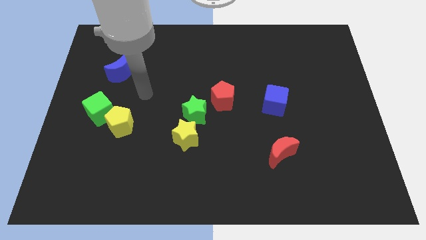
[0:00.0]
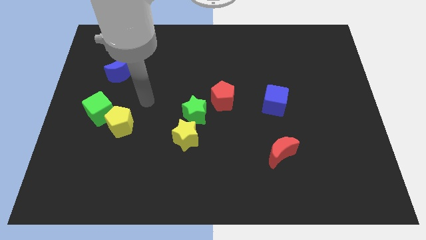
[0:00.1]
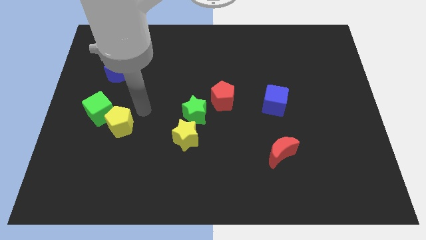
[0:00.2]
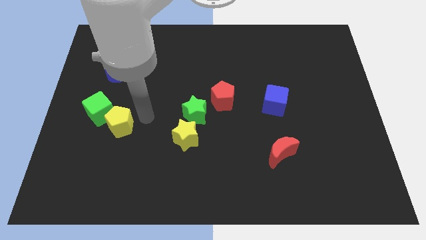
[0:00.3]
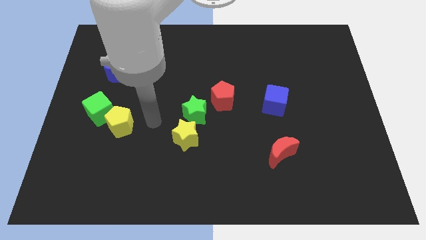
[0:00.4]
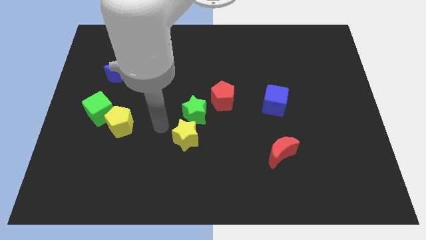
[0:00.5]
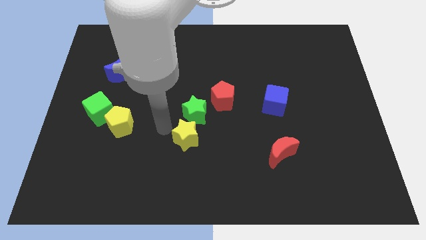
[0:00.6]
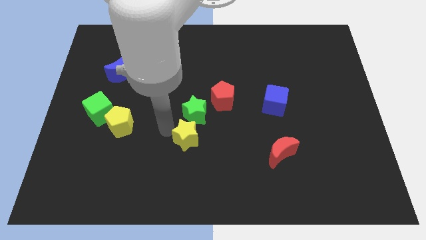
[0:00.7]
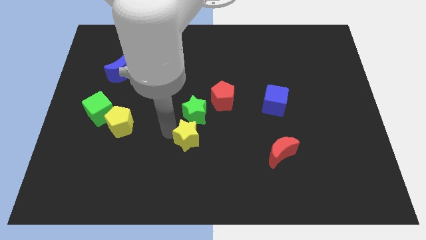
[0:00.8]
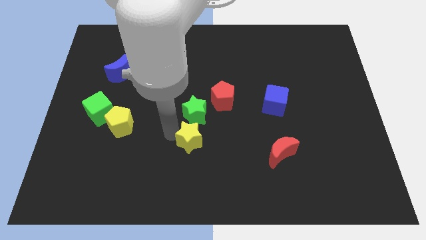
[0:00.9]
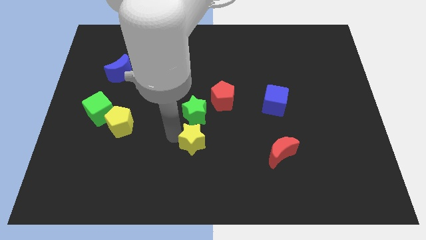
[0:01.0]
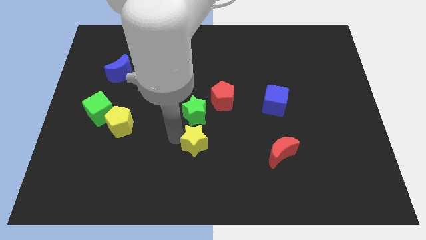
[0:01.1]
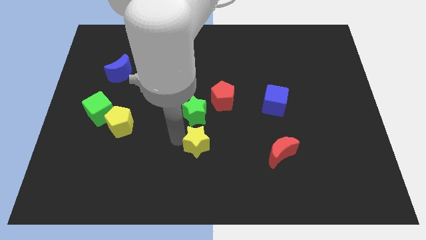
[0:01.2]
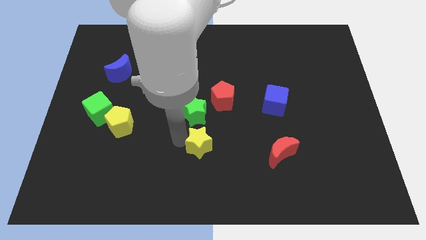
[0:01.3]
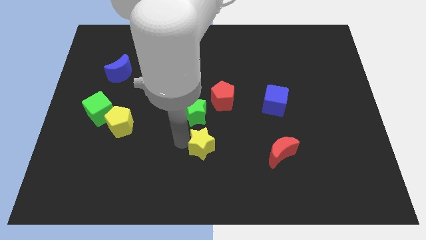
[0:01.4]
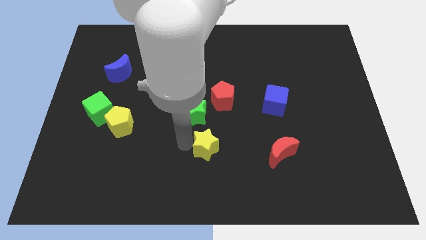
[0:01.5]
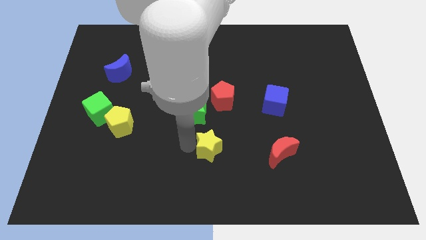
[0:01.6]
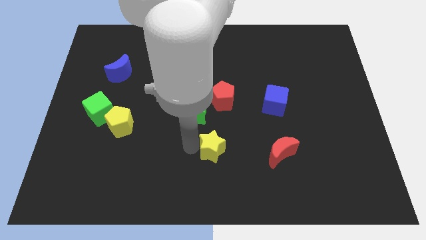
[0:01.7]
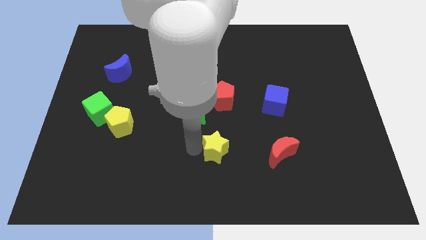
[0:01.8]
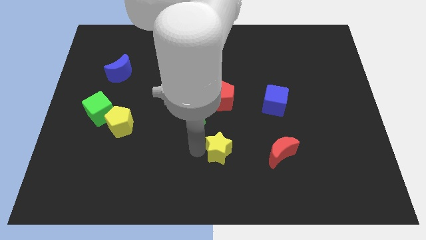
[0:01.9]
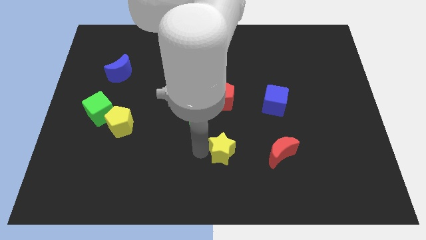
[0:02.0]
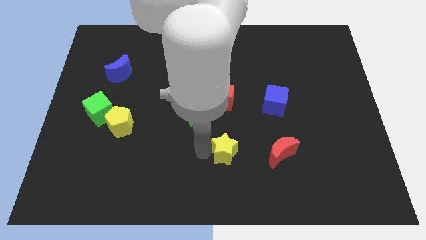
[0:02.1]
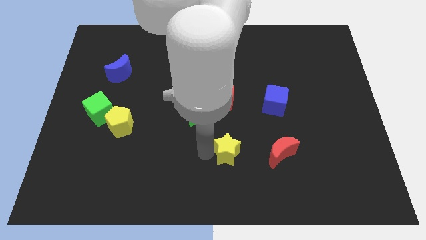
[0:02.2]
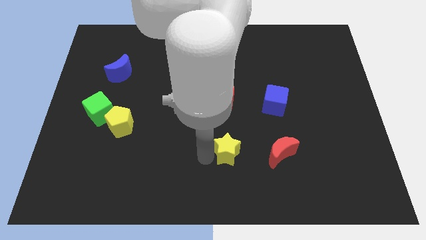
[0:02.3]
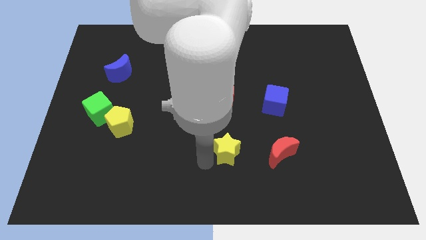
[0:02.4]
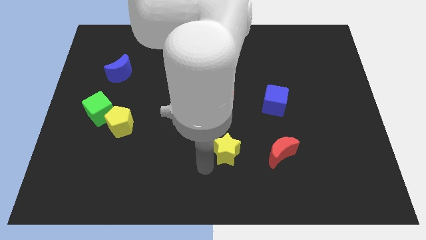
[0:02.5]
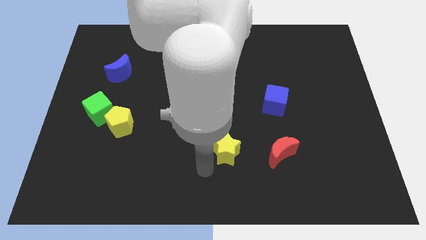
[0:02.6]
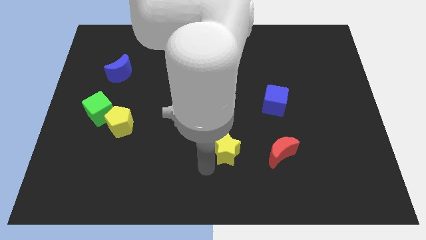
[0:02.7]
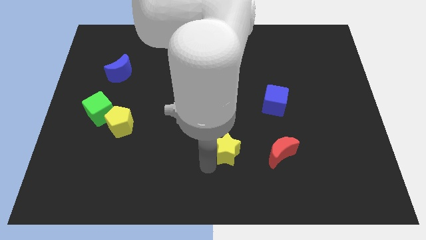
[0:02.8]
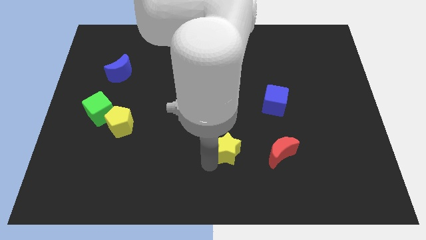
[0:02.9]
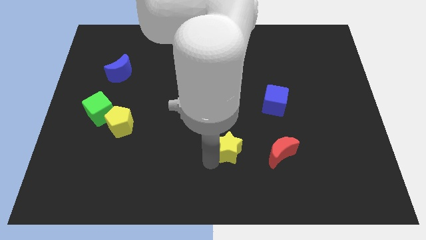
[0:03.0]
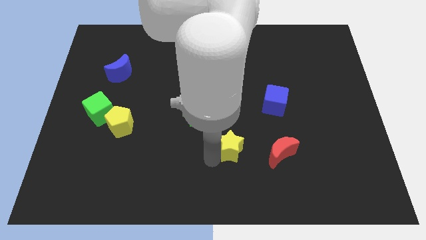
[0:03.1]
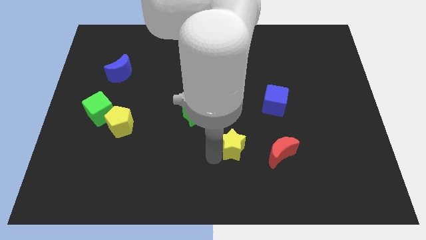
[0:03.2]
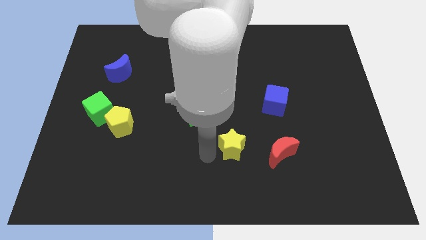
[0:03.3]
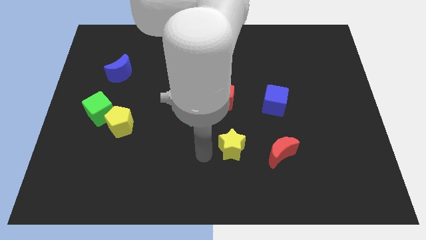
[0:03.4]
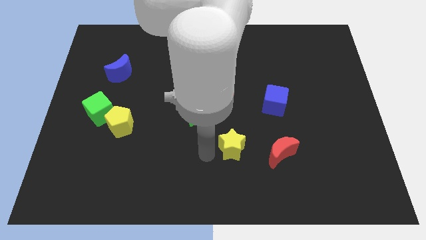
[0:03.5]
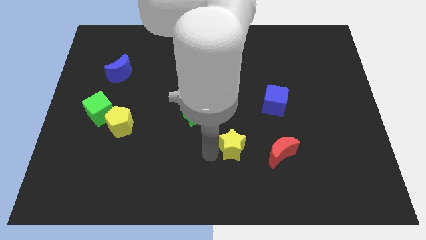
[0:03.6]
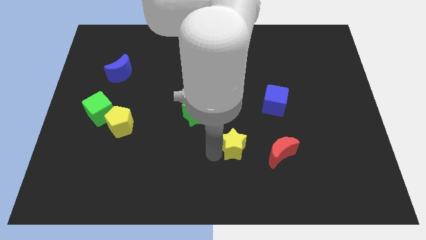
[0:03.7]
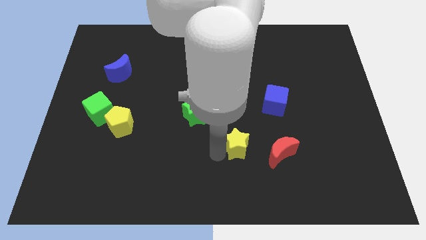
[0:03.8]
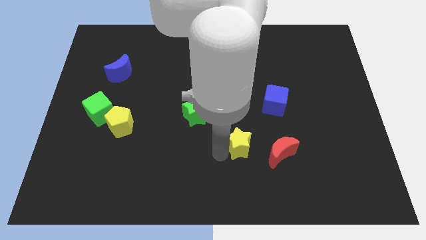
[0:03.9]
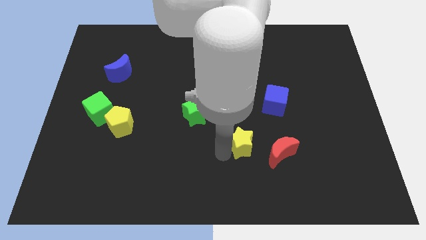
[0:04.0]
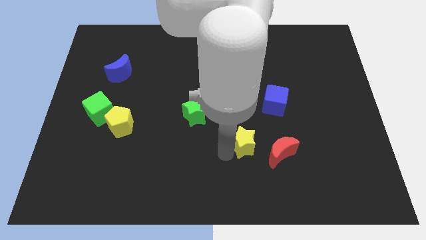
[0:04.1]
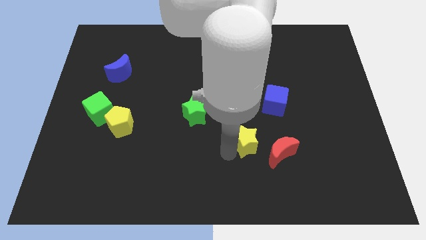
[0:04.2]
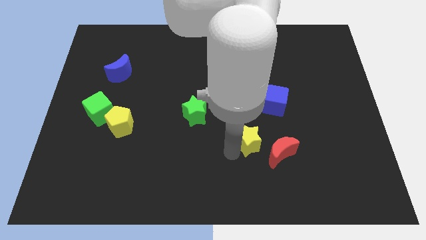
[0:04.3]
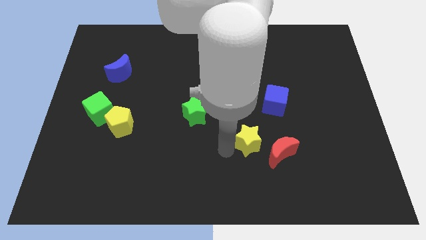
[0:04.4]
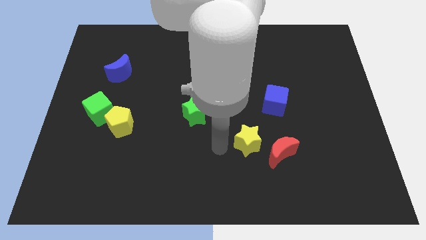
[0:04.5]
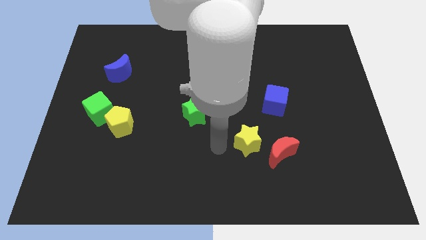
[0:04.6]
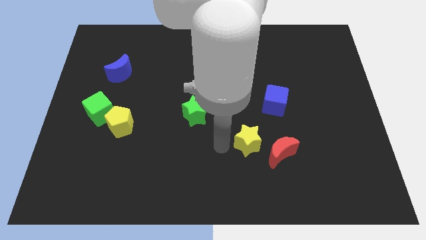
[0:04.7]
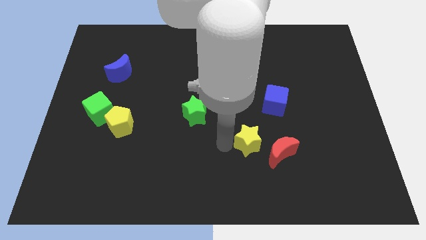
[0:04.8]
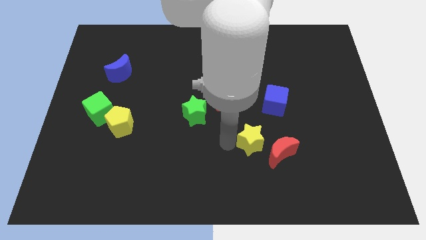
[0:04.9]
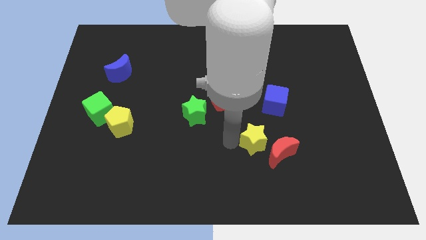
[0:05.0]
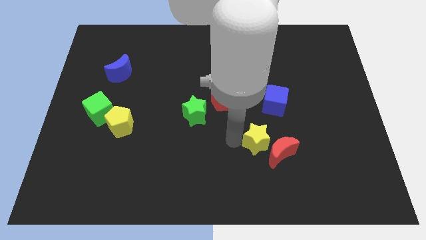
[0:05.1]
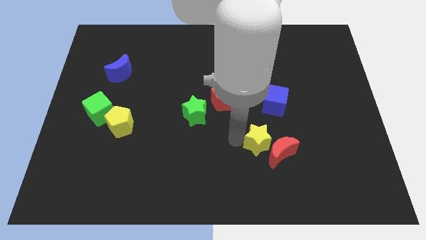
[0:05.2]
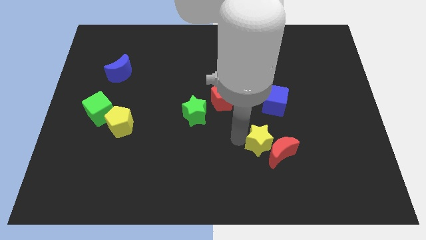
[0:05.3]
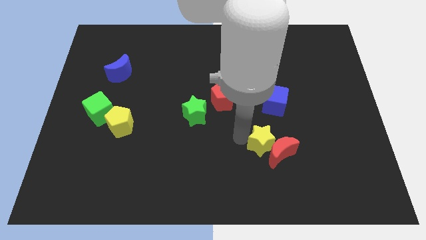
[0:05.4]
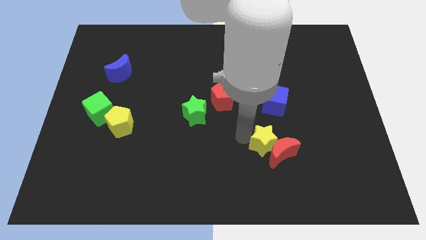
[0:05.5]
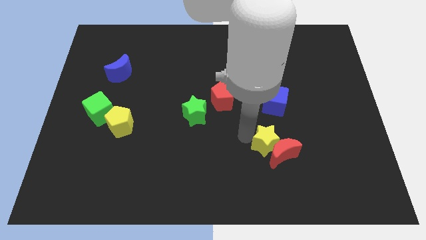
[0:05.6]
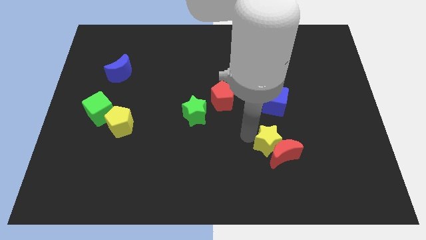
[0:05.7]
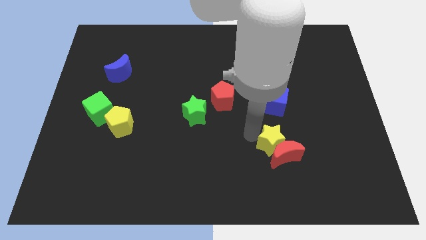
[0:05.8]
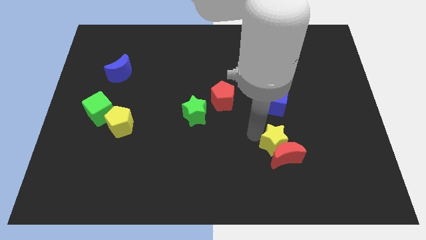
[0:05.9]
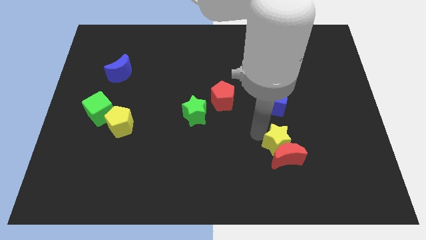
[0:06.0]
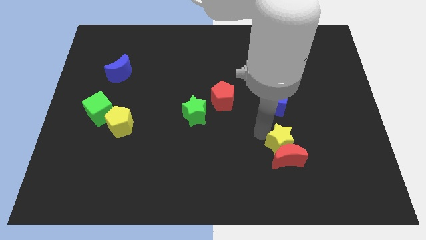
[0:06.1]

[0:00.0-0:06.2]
push the yellow star to the right

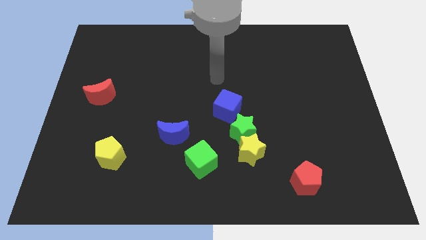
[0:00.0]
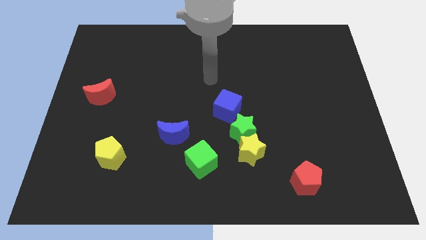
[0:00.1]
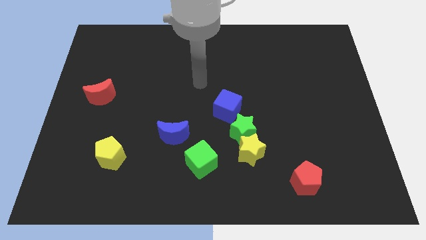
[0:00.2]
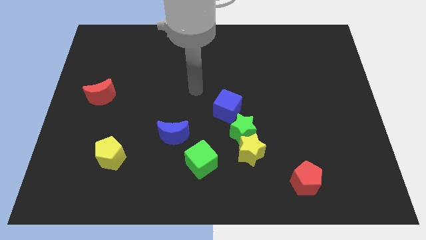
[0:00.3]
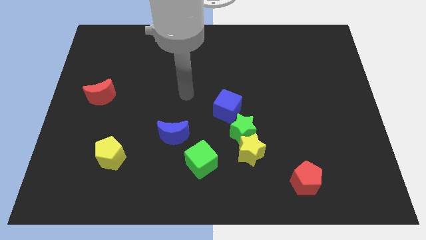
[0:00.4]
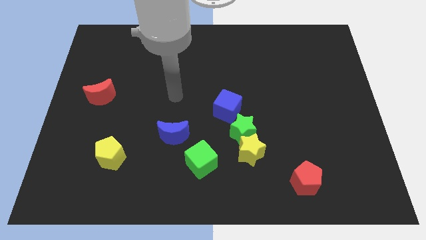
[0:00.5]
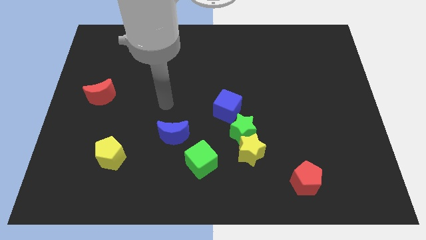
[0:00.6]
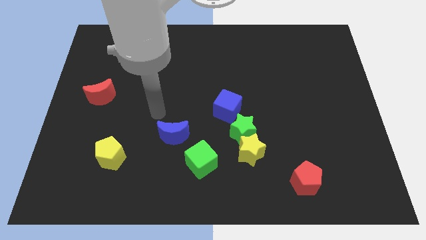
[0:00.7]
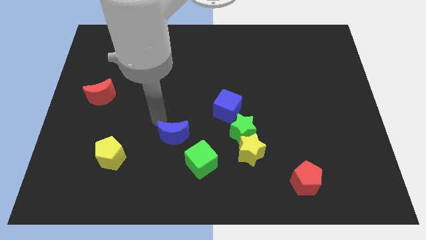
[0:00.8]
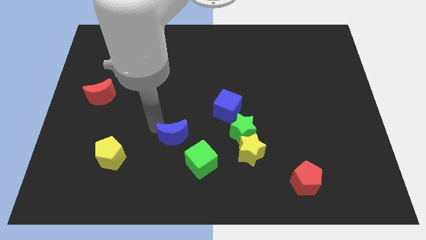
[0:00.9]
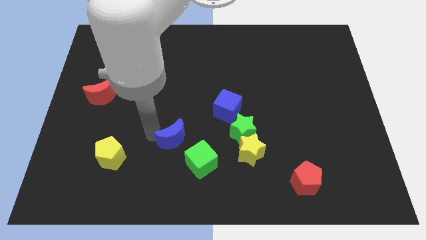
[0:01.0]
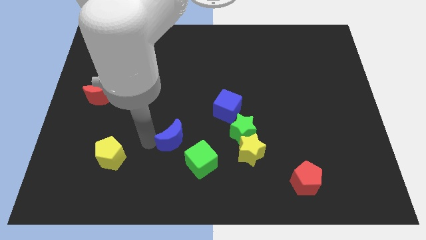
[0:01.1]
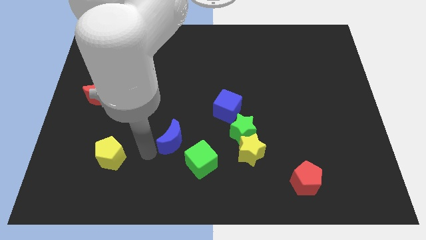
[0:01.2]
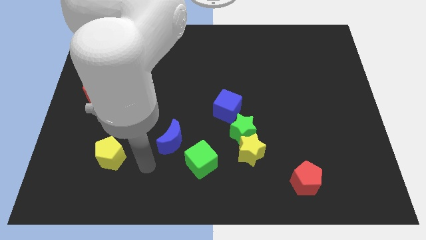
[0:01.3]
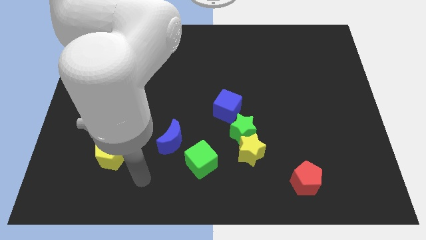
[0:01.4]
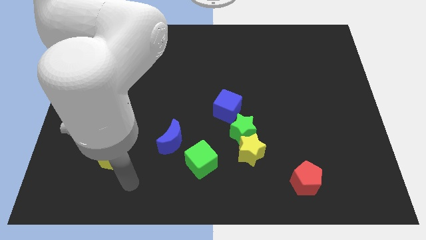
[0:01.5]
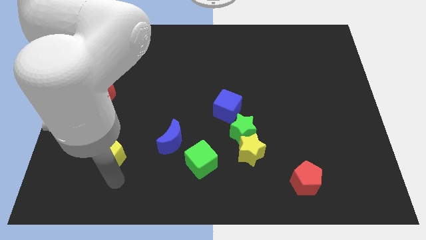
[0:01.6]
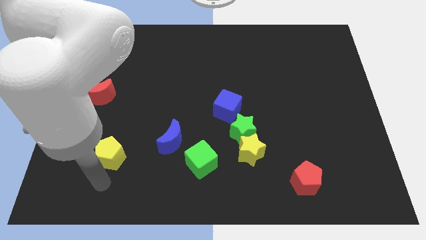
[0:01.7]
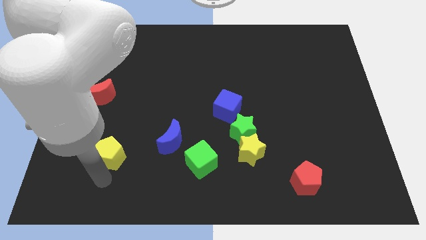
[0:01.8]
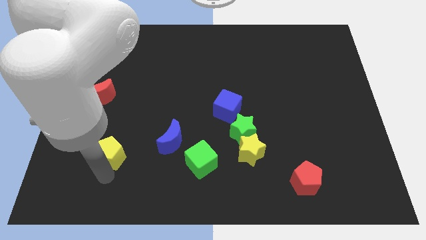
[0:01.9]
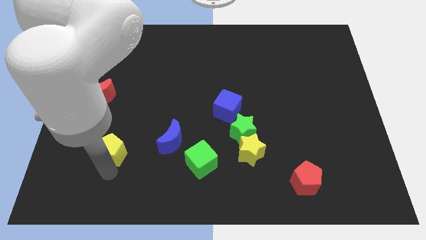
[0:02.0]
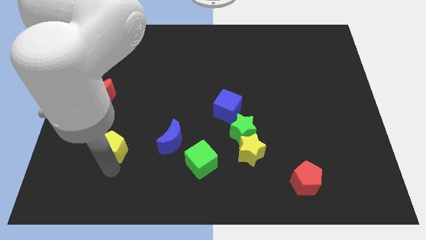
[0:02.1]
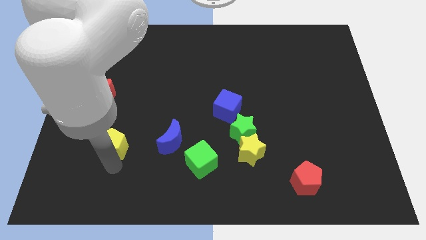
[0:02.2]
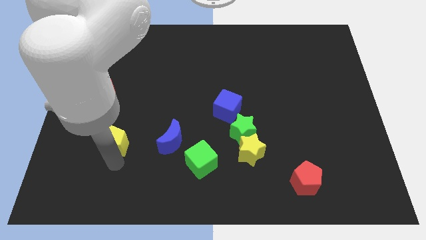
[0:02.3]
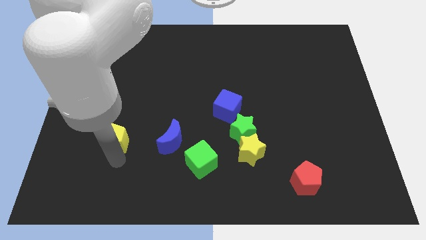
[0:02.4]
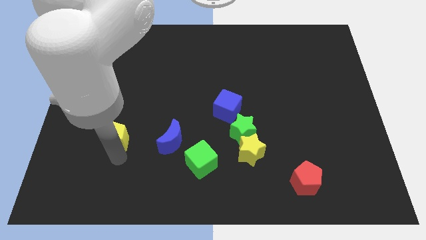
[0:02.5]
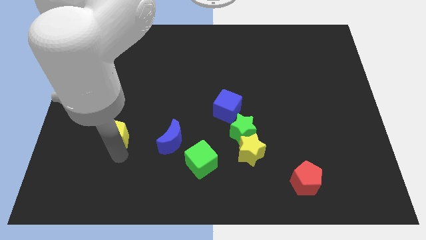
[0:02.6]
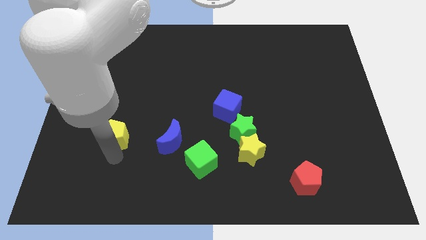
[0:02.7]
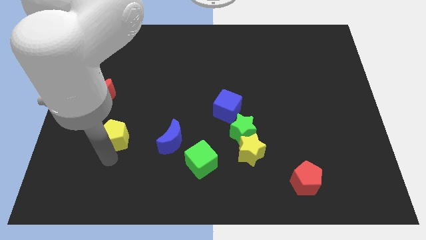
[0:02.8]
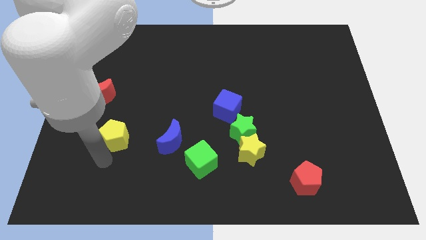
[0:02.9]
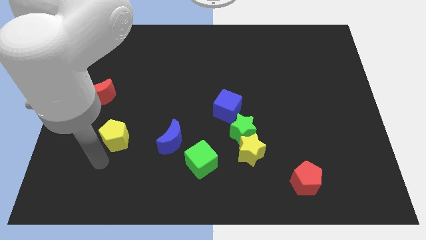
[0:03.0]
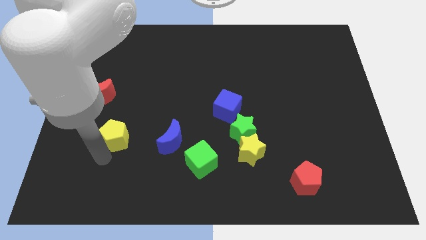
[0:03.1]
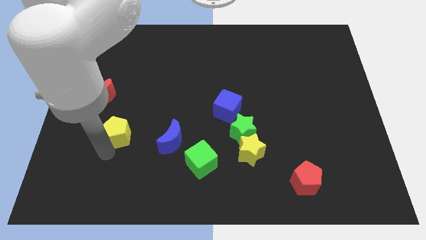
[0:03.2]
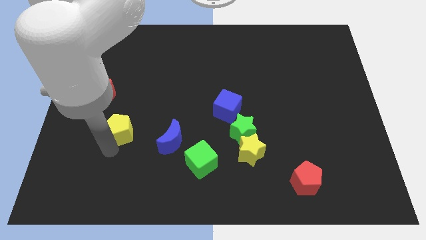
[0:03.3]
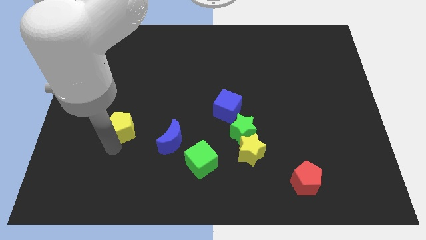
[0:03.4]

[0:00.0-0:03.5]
move the yellow pentagon up a little bit
